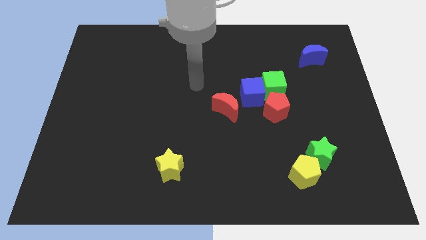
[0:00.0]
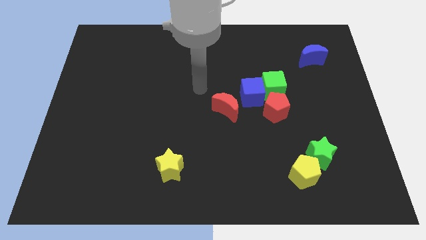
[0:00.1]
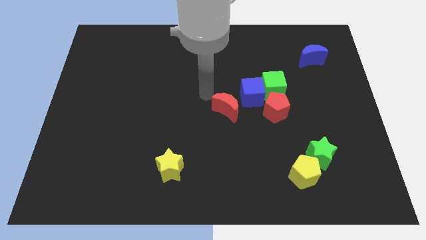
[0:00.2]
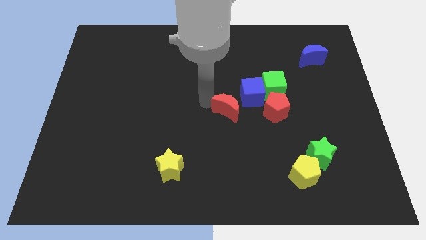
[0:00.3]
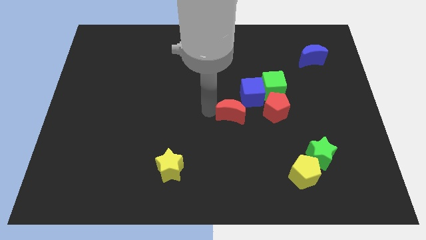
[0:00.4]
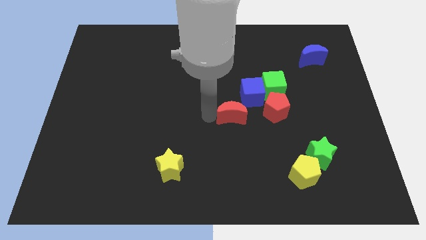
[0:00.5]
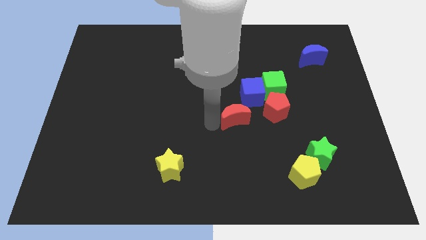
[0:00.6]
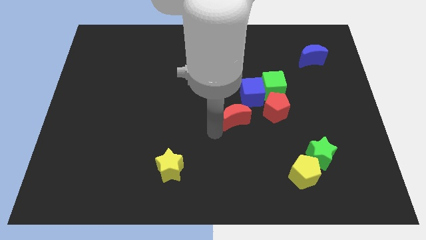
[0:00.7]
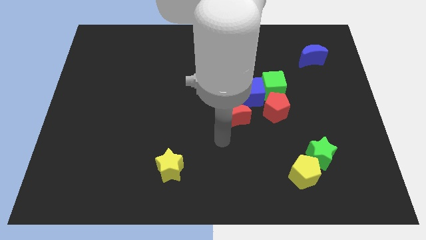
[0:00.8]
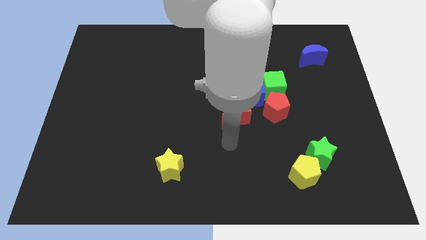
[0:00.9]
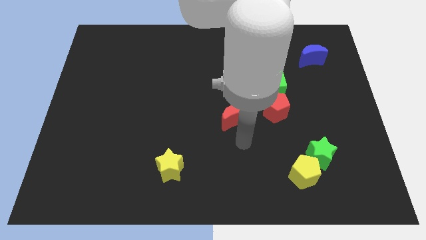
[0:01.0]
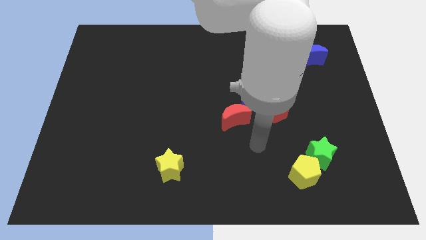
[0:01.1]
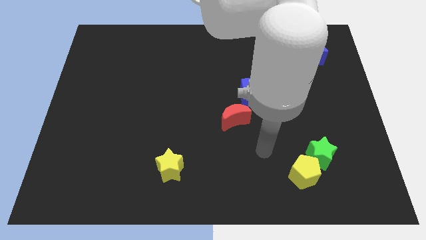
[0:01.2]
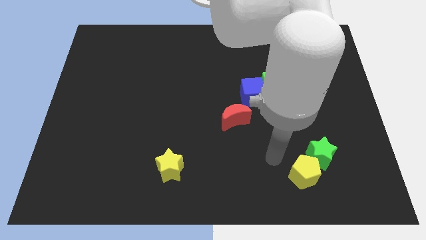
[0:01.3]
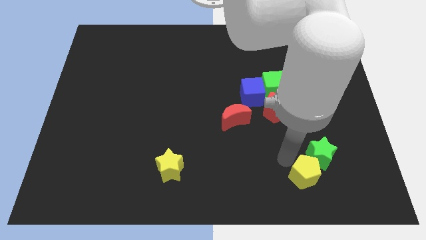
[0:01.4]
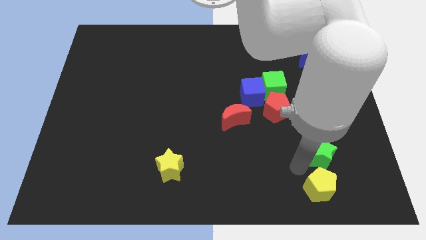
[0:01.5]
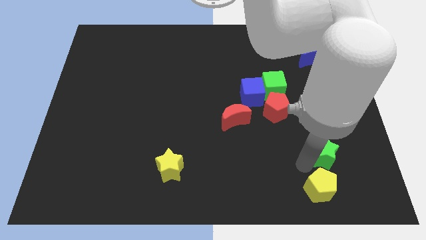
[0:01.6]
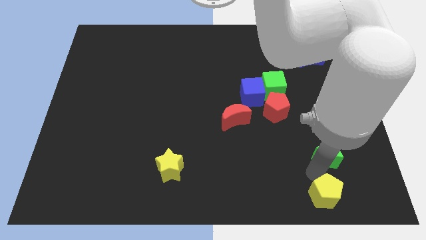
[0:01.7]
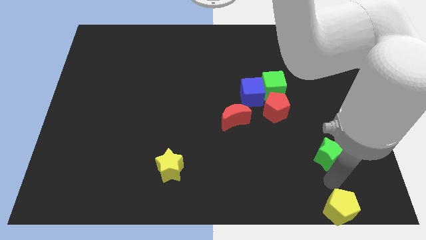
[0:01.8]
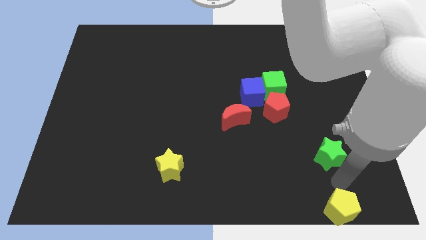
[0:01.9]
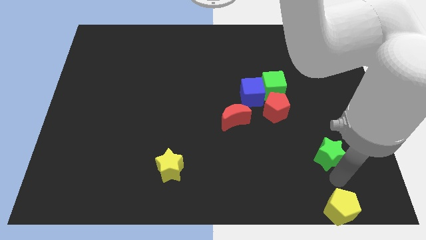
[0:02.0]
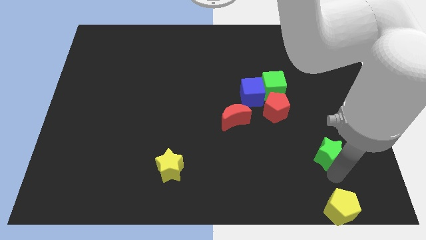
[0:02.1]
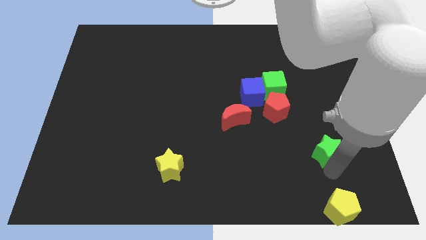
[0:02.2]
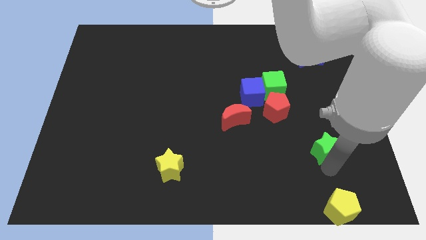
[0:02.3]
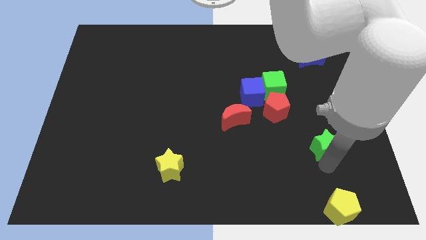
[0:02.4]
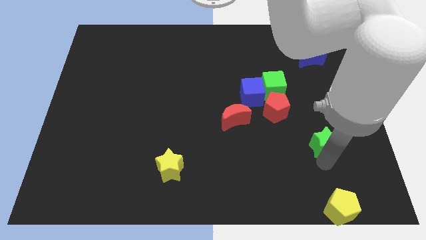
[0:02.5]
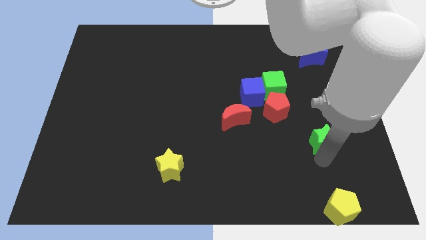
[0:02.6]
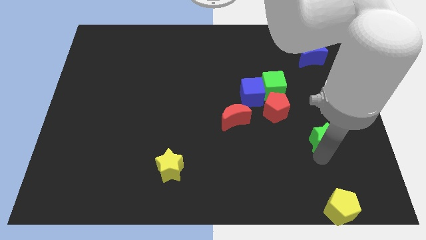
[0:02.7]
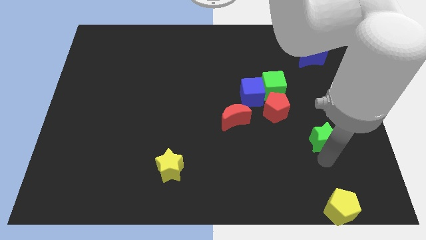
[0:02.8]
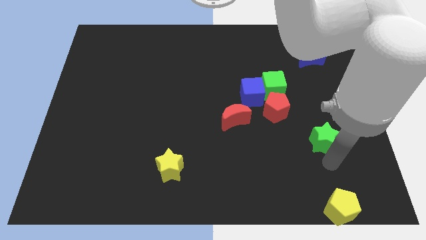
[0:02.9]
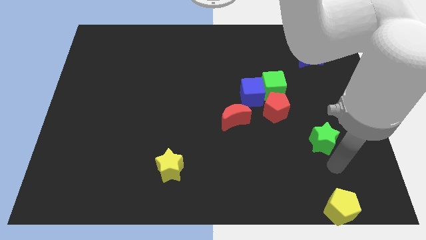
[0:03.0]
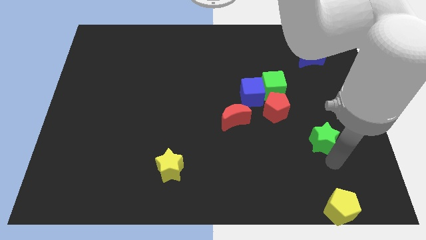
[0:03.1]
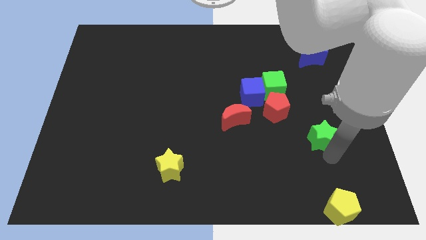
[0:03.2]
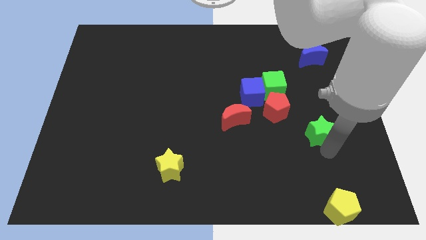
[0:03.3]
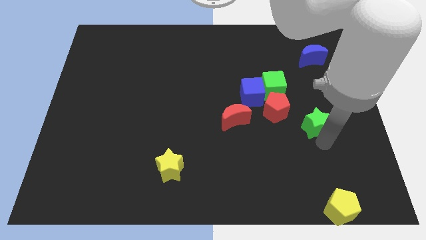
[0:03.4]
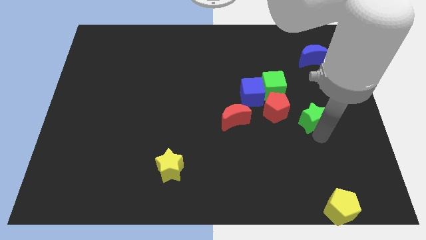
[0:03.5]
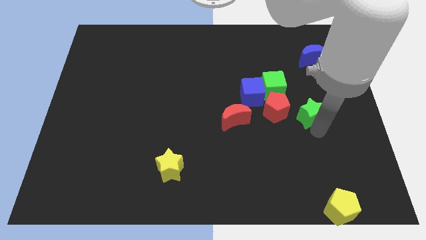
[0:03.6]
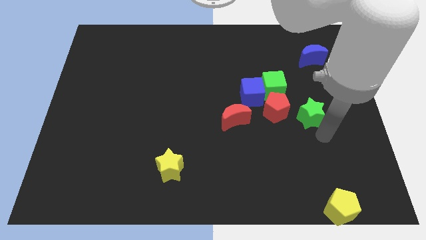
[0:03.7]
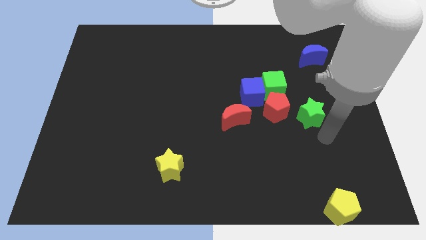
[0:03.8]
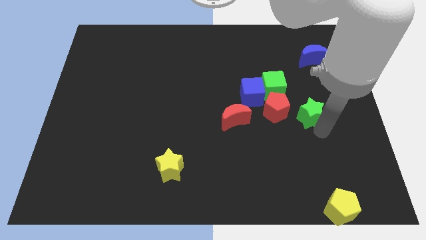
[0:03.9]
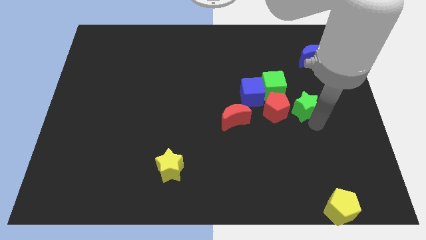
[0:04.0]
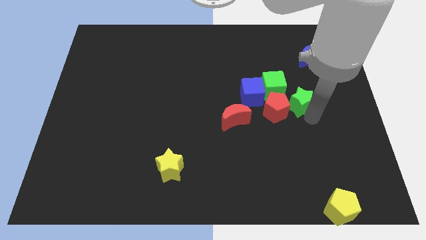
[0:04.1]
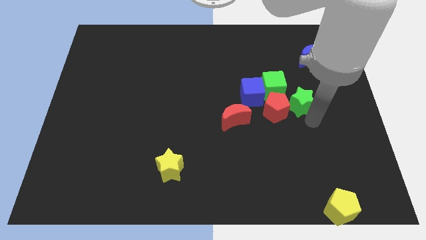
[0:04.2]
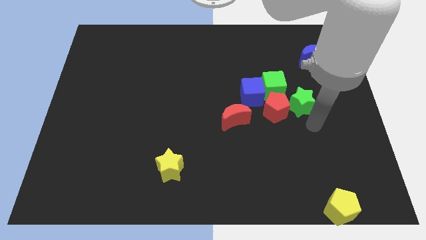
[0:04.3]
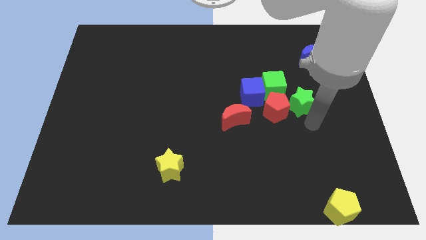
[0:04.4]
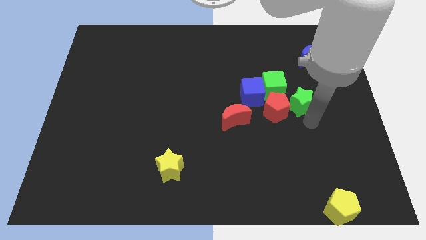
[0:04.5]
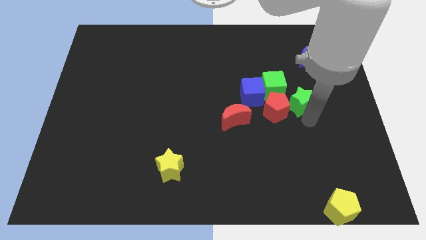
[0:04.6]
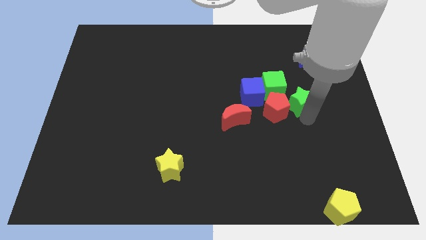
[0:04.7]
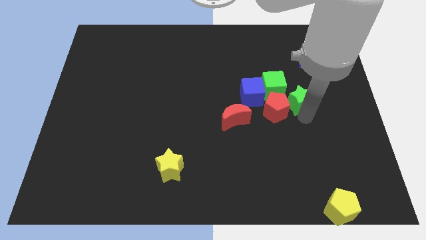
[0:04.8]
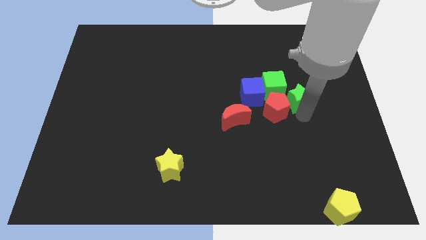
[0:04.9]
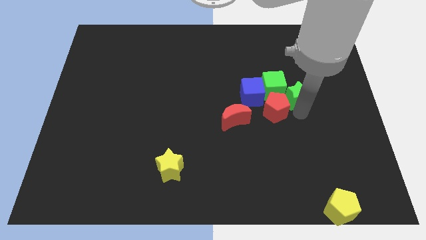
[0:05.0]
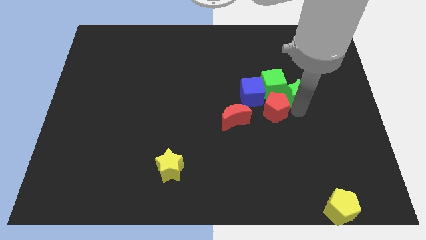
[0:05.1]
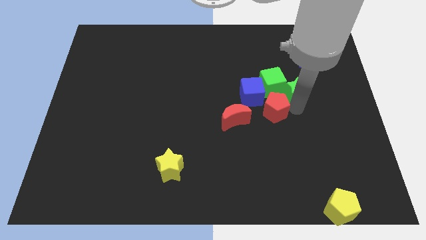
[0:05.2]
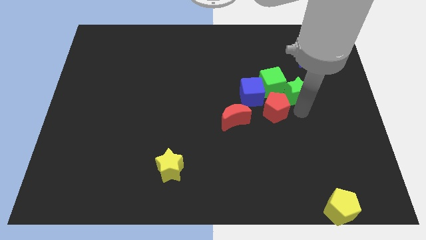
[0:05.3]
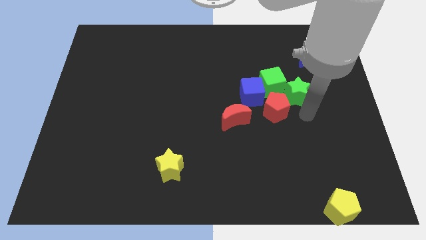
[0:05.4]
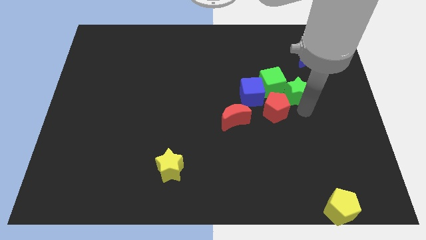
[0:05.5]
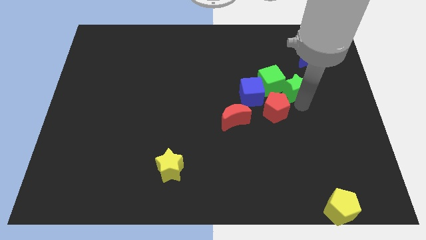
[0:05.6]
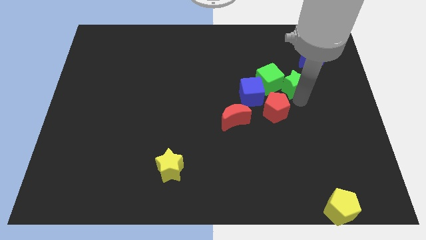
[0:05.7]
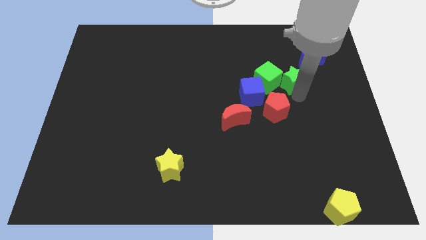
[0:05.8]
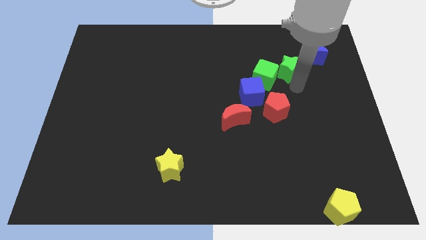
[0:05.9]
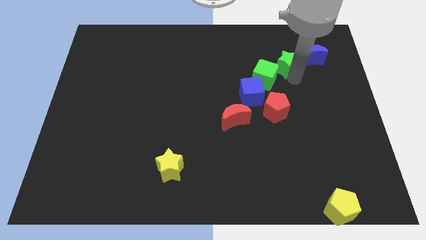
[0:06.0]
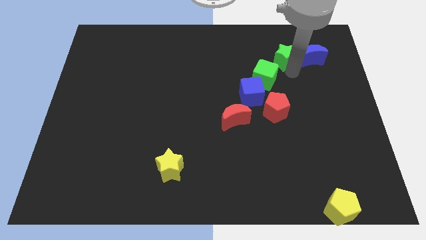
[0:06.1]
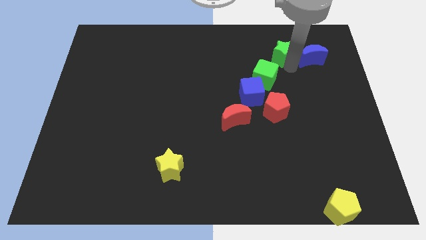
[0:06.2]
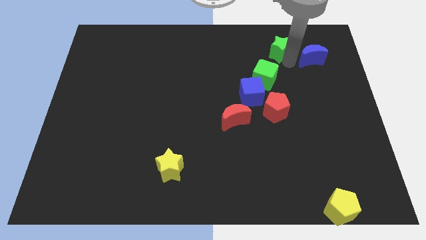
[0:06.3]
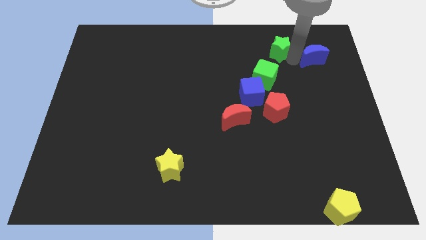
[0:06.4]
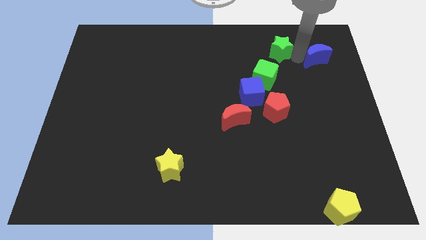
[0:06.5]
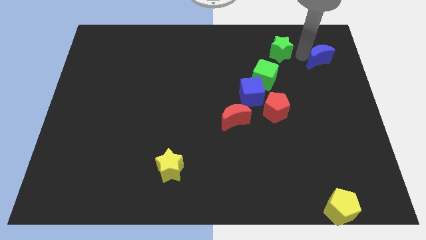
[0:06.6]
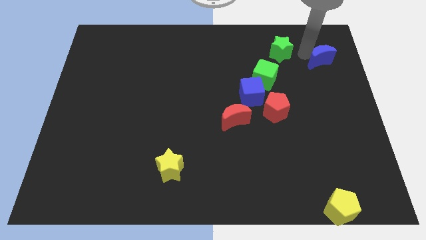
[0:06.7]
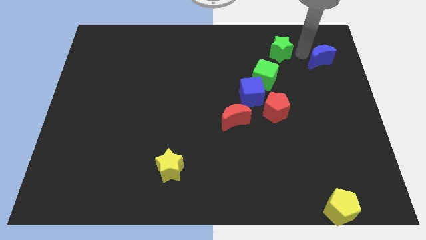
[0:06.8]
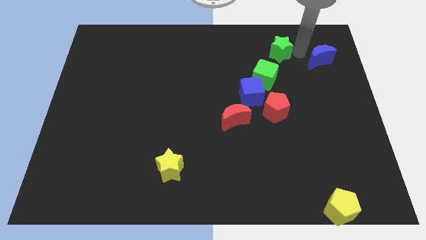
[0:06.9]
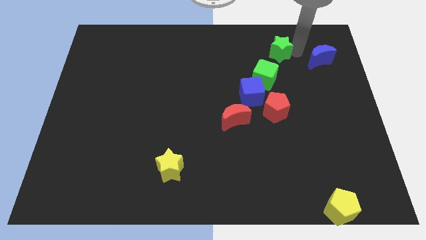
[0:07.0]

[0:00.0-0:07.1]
move the green star above the green cube

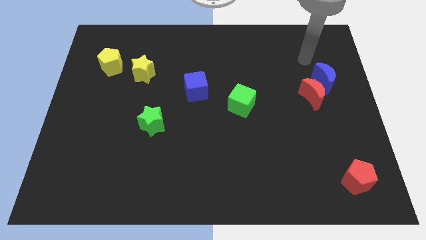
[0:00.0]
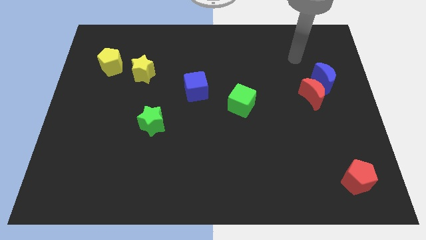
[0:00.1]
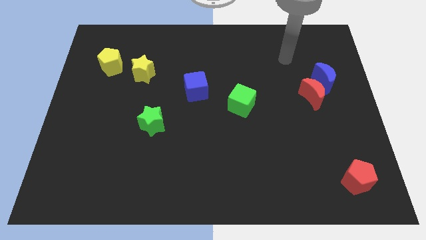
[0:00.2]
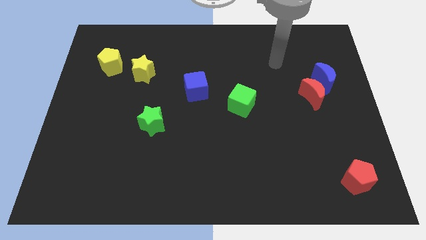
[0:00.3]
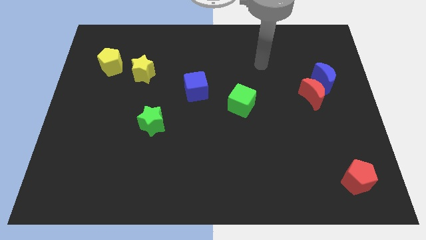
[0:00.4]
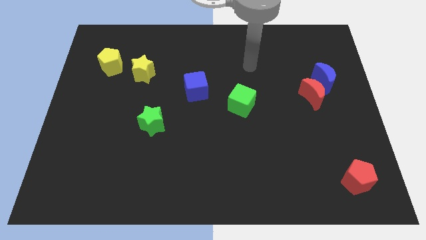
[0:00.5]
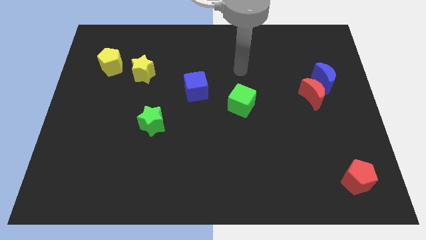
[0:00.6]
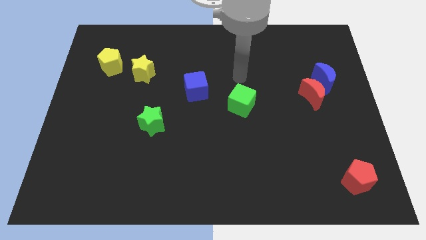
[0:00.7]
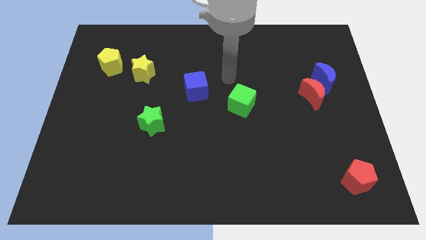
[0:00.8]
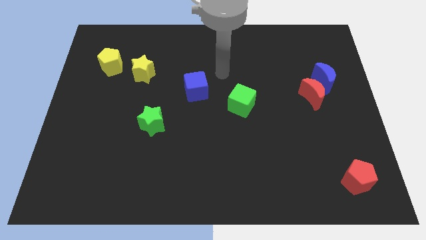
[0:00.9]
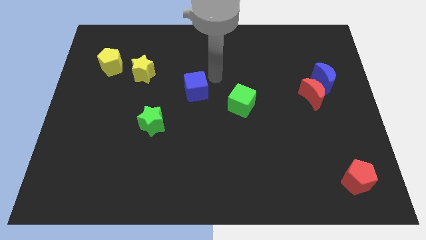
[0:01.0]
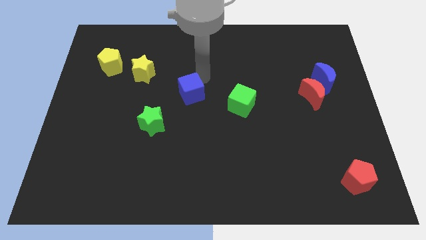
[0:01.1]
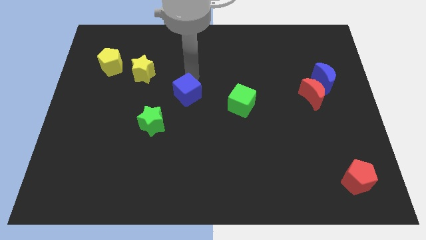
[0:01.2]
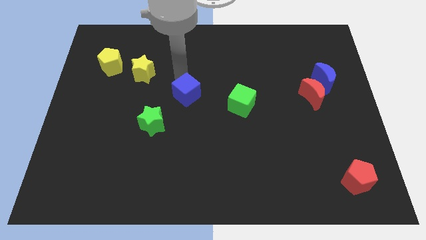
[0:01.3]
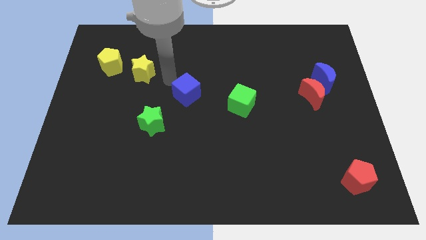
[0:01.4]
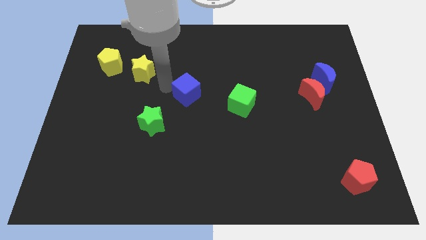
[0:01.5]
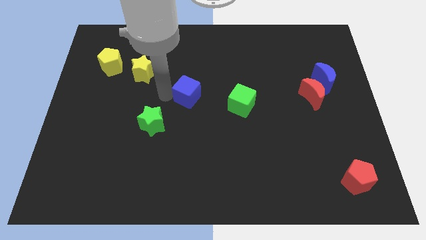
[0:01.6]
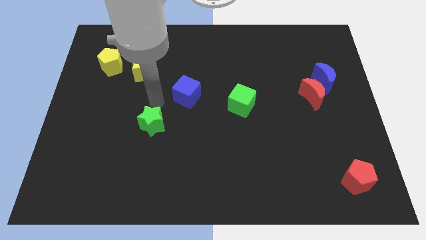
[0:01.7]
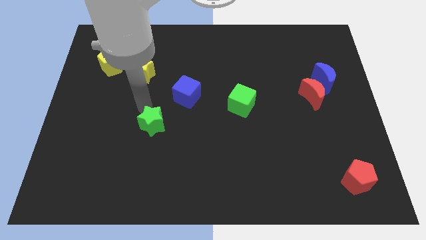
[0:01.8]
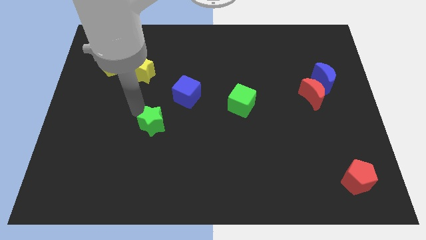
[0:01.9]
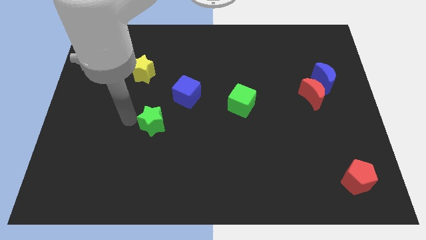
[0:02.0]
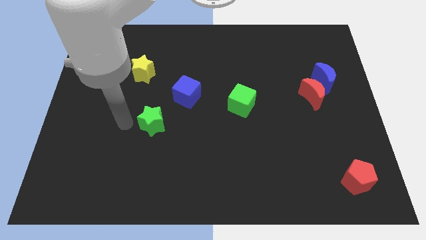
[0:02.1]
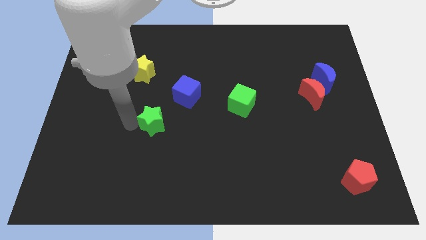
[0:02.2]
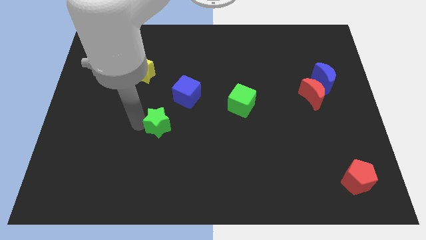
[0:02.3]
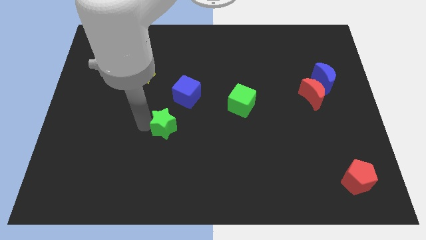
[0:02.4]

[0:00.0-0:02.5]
push the green star to the bottom side of the blue cube
